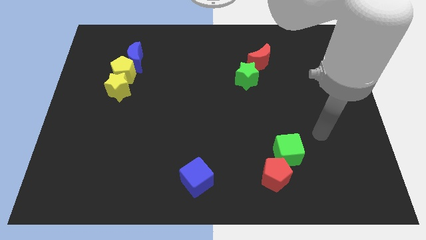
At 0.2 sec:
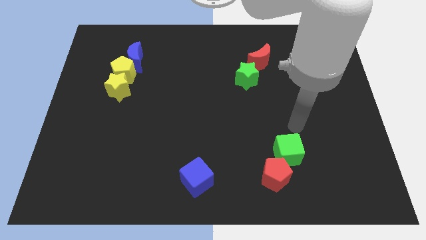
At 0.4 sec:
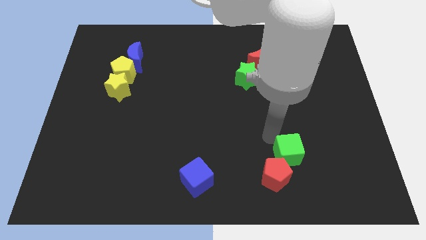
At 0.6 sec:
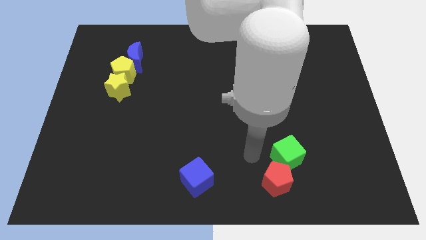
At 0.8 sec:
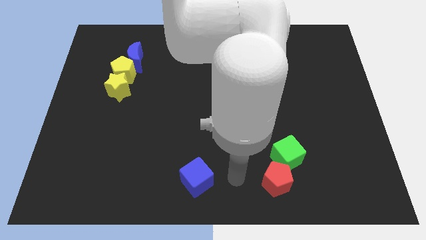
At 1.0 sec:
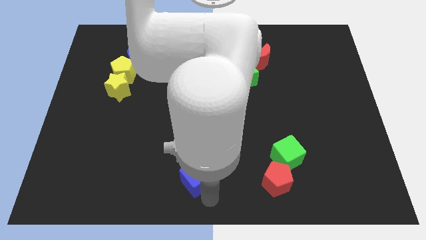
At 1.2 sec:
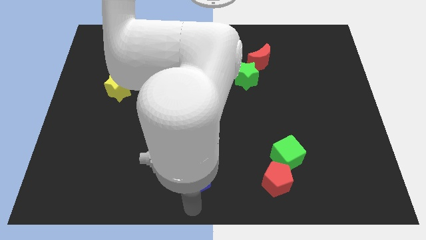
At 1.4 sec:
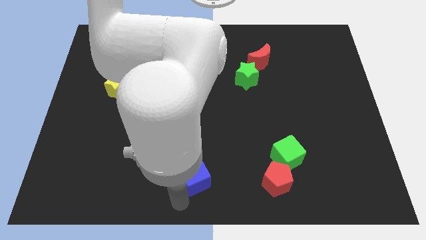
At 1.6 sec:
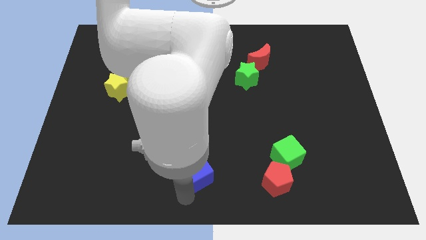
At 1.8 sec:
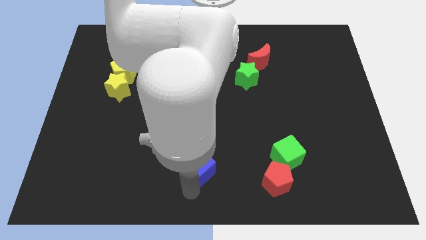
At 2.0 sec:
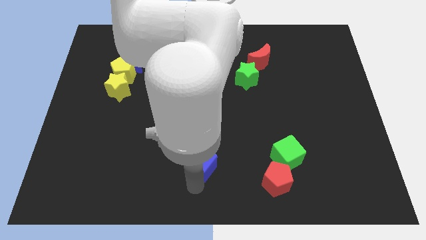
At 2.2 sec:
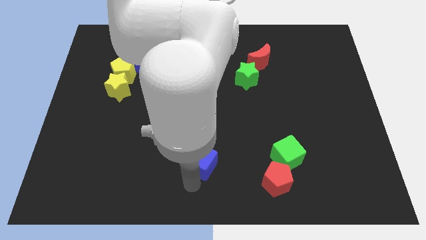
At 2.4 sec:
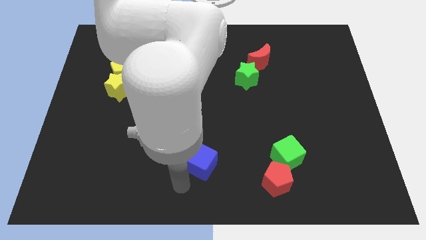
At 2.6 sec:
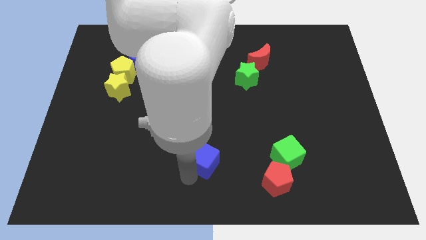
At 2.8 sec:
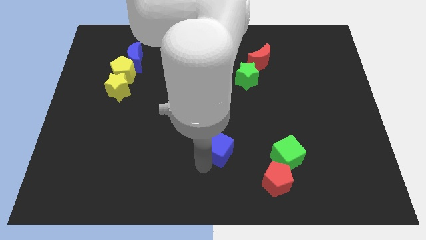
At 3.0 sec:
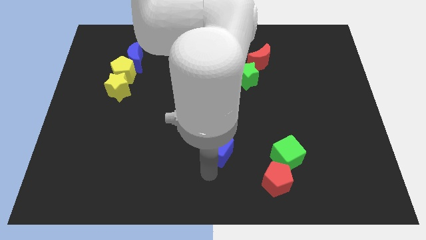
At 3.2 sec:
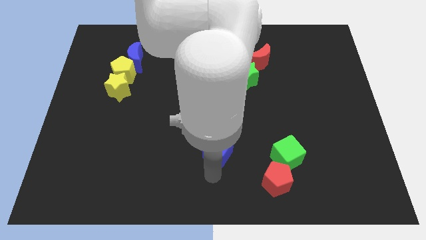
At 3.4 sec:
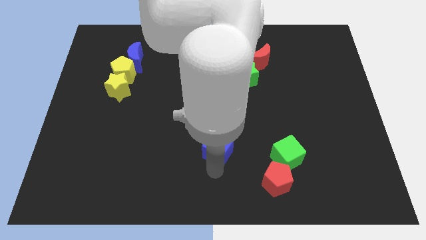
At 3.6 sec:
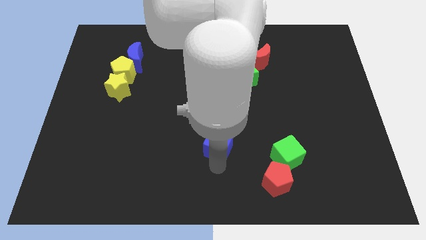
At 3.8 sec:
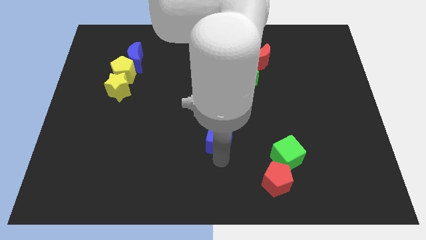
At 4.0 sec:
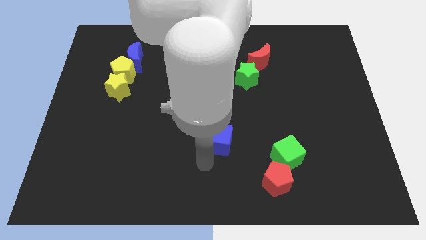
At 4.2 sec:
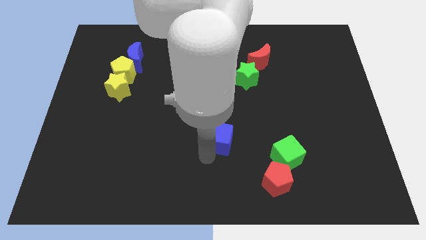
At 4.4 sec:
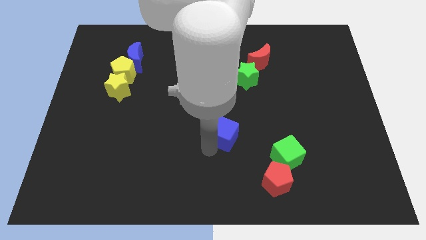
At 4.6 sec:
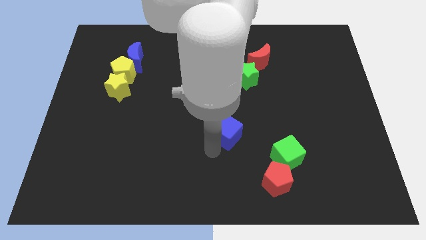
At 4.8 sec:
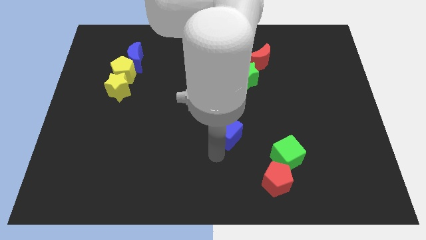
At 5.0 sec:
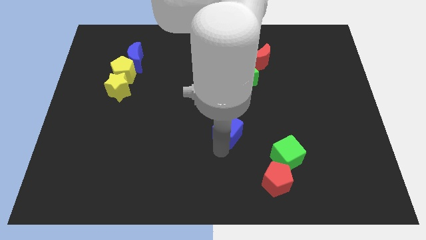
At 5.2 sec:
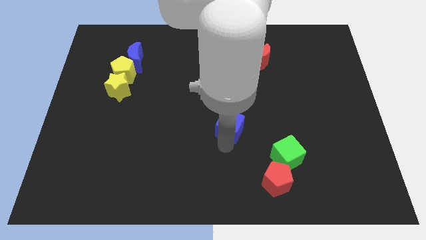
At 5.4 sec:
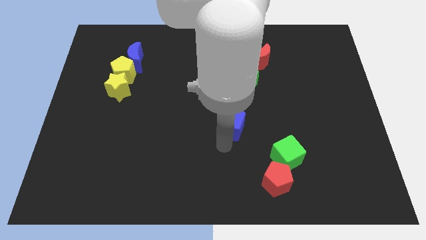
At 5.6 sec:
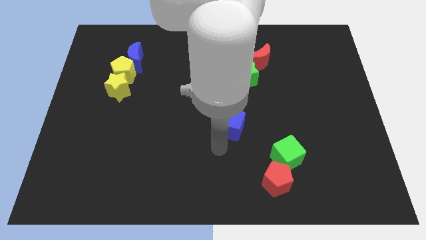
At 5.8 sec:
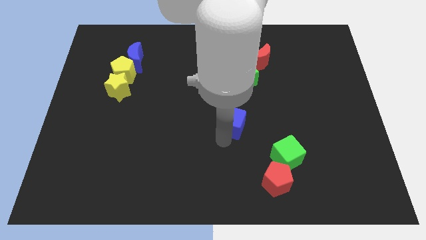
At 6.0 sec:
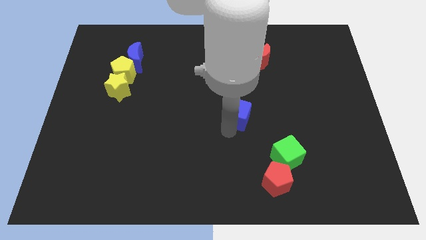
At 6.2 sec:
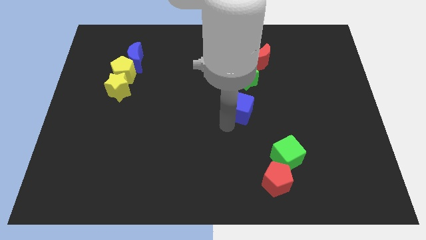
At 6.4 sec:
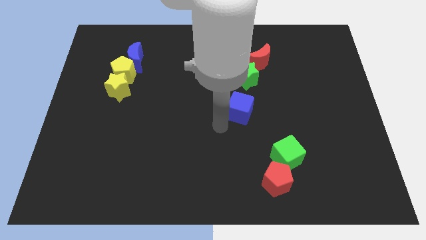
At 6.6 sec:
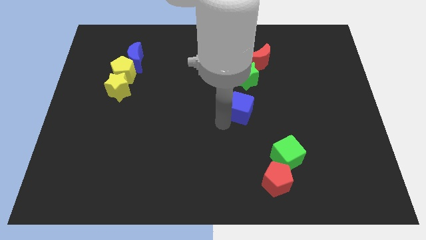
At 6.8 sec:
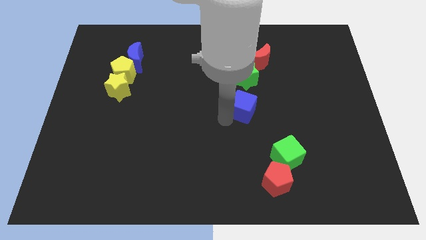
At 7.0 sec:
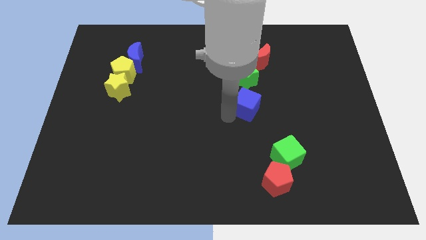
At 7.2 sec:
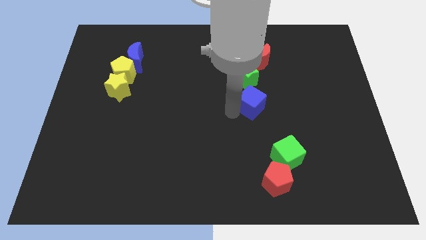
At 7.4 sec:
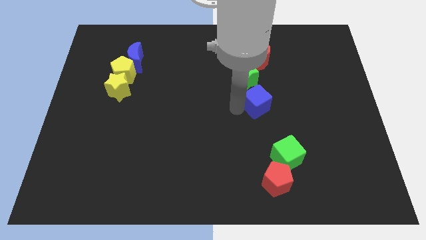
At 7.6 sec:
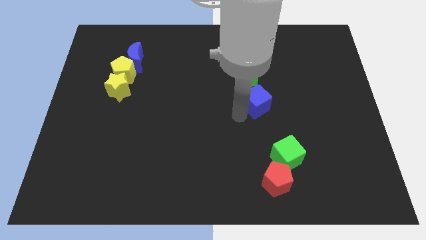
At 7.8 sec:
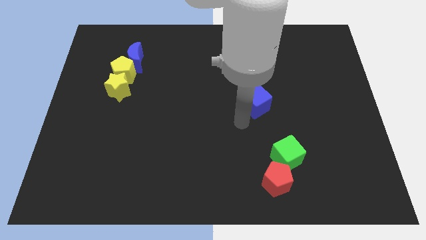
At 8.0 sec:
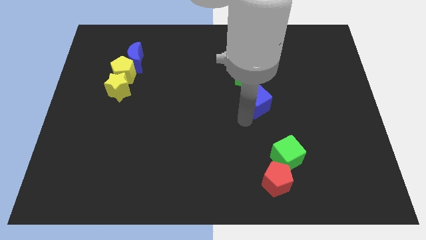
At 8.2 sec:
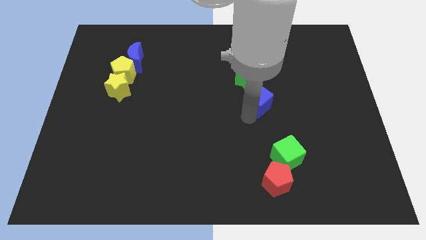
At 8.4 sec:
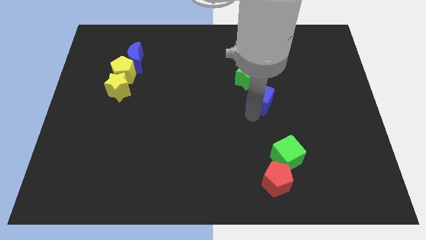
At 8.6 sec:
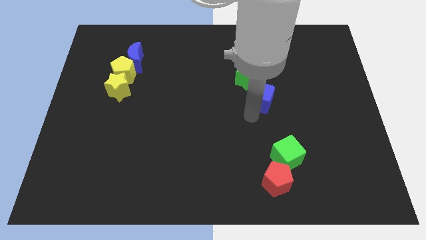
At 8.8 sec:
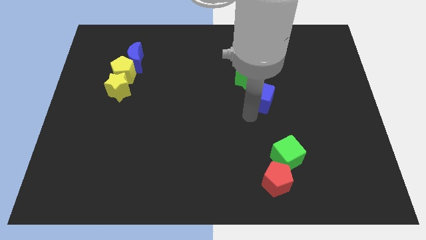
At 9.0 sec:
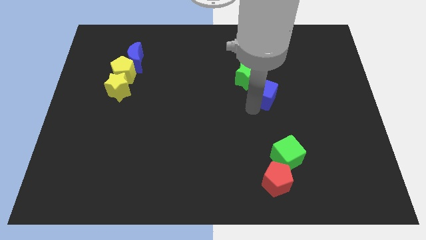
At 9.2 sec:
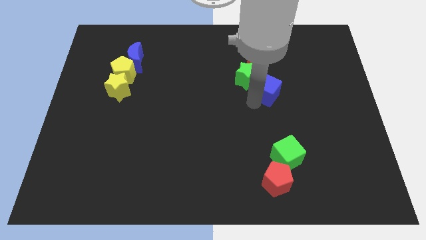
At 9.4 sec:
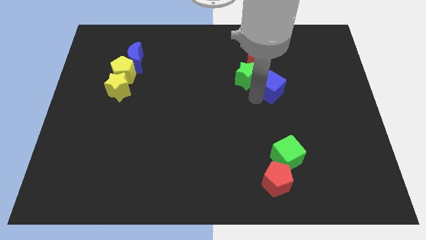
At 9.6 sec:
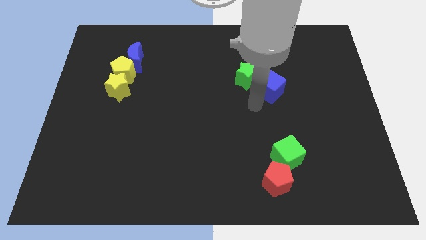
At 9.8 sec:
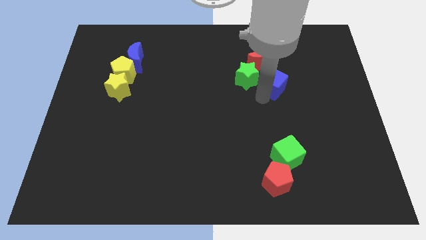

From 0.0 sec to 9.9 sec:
slide the blue cube to the bottom right side of the red moon

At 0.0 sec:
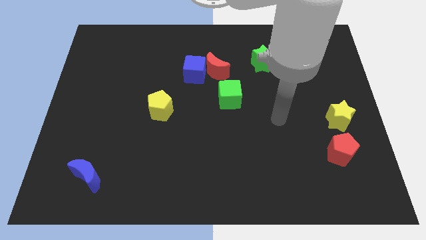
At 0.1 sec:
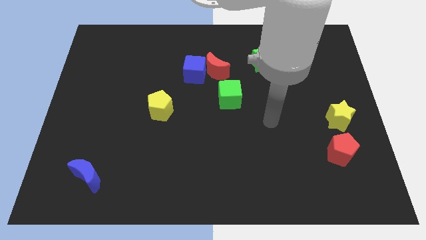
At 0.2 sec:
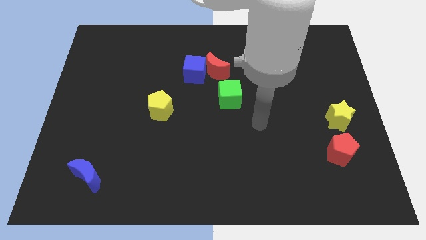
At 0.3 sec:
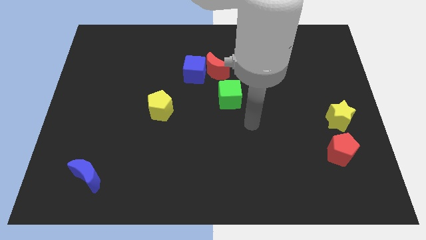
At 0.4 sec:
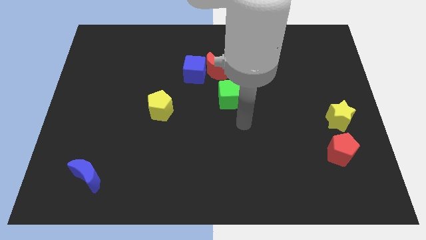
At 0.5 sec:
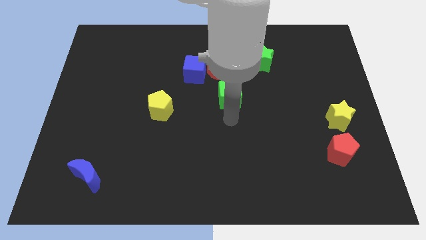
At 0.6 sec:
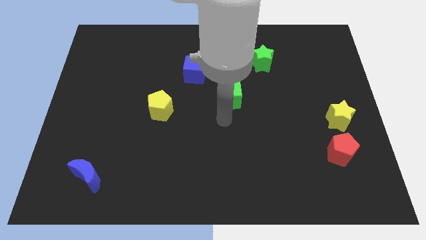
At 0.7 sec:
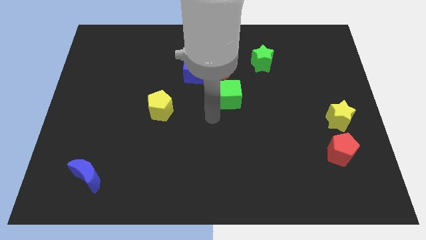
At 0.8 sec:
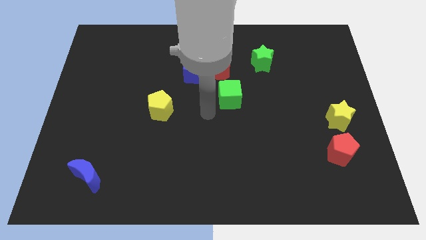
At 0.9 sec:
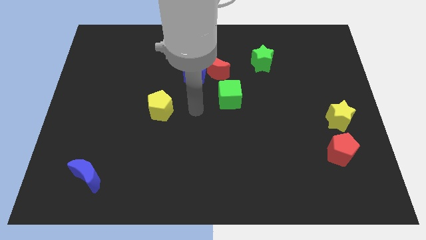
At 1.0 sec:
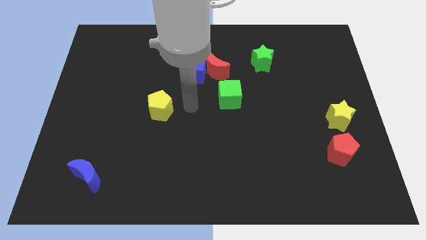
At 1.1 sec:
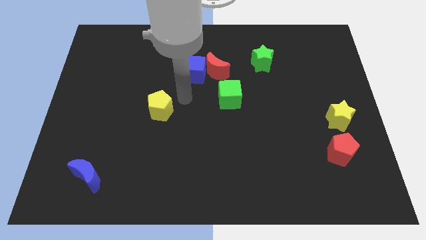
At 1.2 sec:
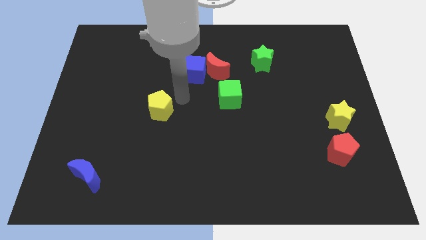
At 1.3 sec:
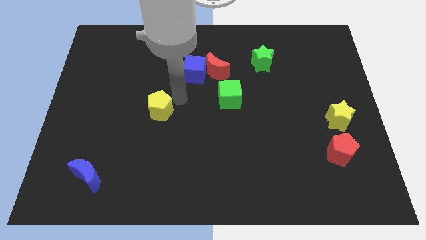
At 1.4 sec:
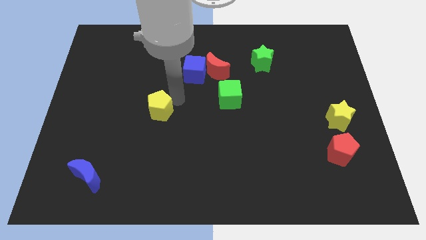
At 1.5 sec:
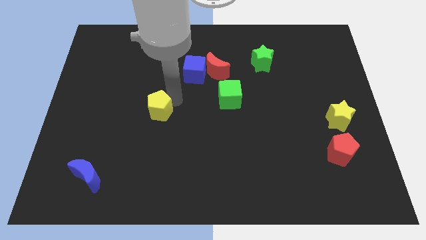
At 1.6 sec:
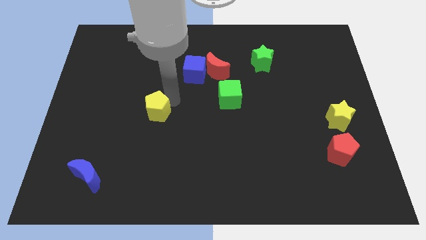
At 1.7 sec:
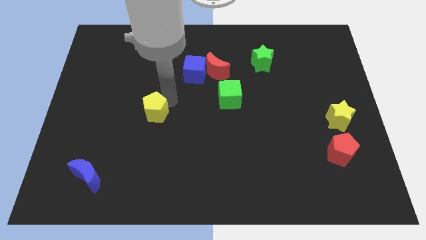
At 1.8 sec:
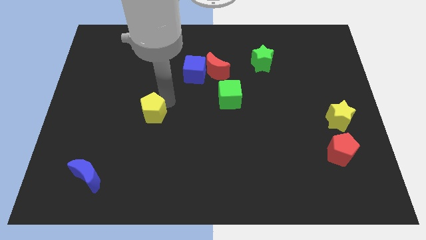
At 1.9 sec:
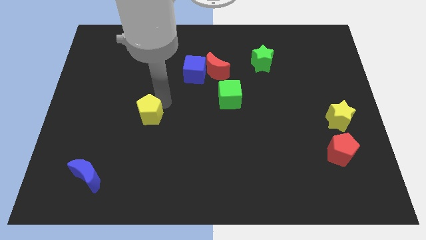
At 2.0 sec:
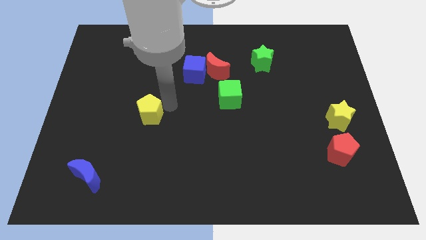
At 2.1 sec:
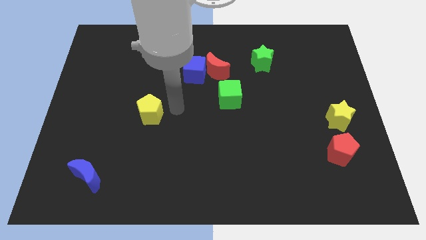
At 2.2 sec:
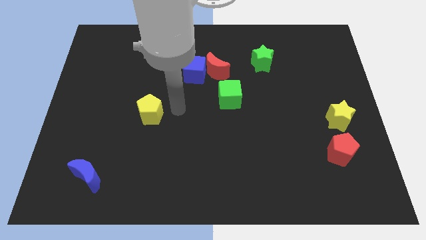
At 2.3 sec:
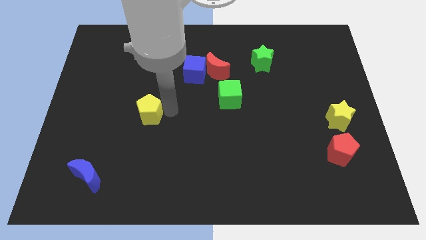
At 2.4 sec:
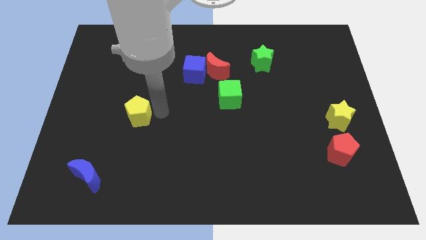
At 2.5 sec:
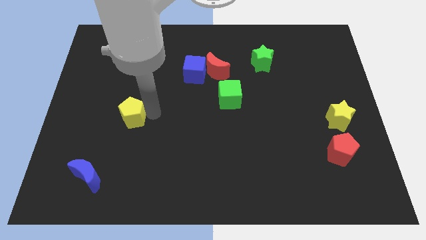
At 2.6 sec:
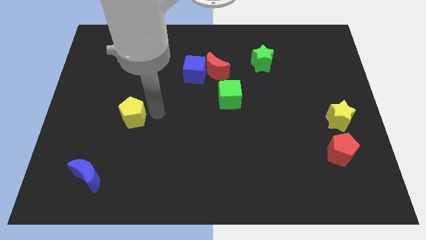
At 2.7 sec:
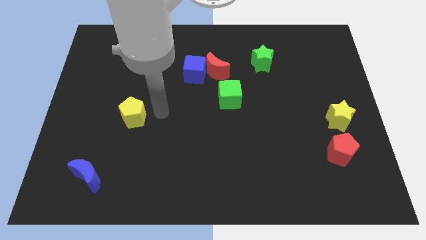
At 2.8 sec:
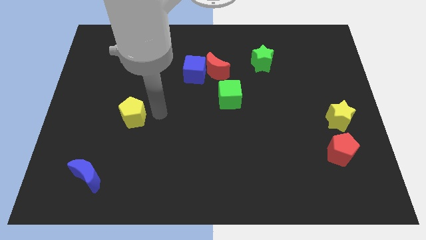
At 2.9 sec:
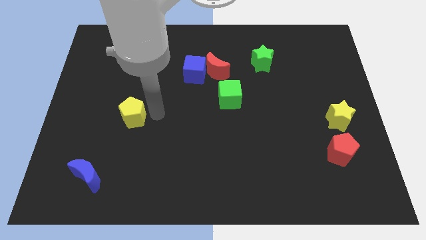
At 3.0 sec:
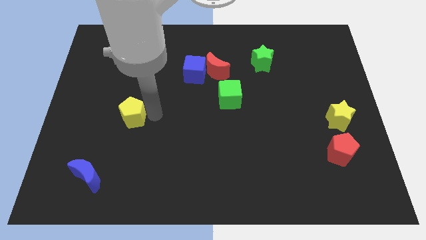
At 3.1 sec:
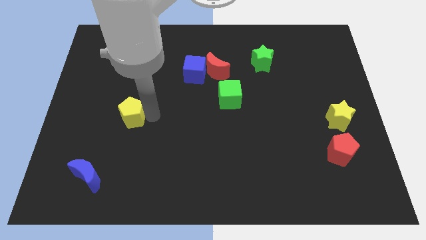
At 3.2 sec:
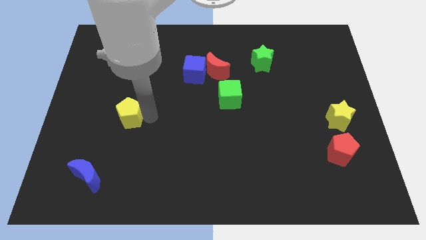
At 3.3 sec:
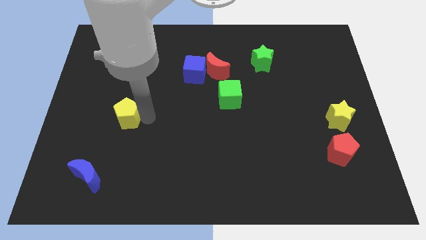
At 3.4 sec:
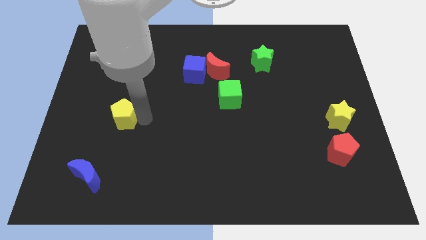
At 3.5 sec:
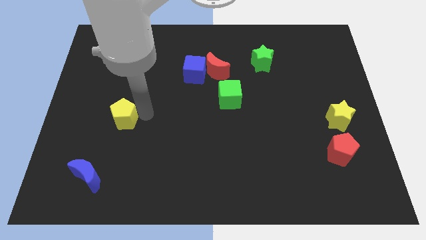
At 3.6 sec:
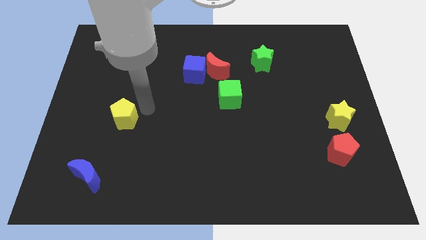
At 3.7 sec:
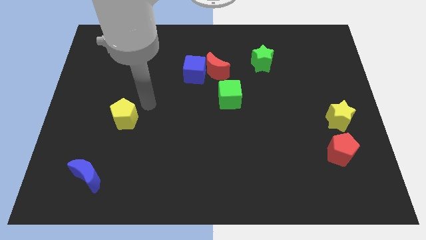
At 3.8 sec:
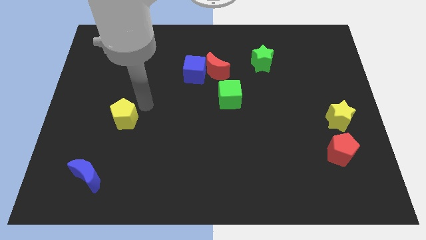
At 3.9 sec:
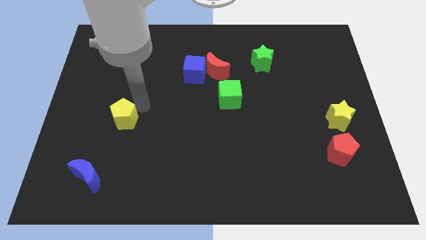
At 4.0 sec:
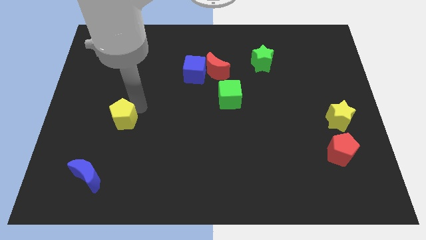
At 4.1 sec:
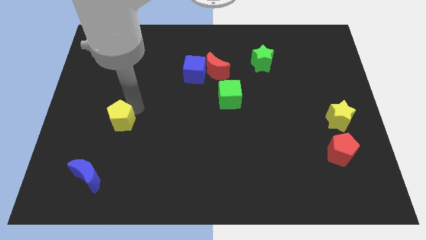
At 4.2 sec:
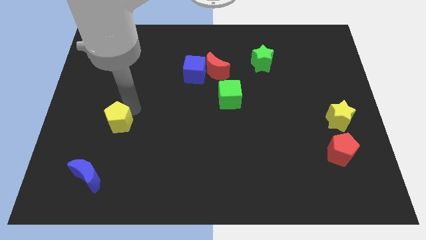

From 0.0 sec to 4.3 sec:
slide the yellow pentagon to the top of the blue moon
